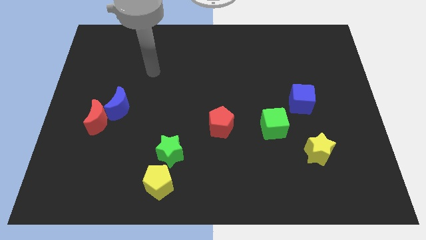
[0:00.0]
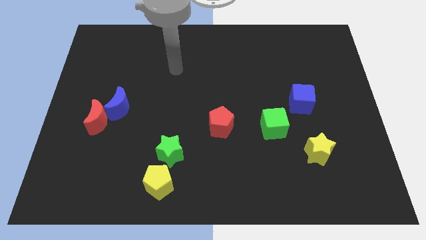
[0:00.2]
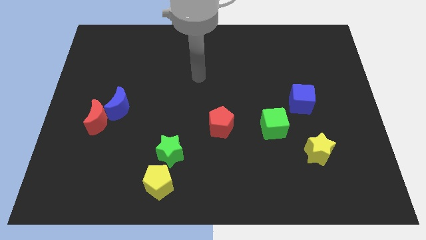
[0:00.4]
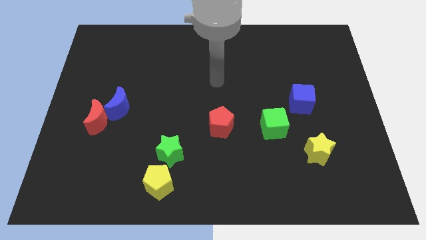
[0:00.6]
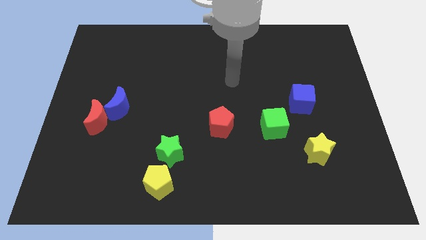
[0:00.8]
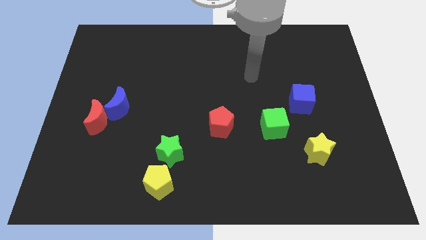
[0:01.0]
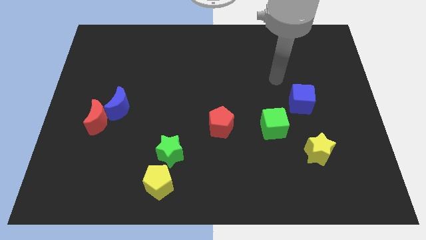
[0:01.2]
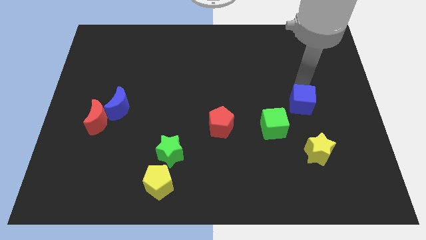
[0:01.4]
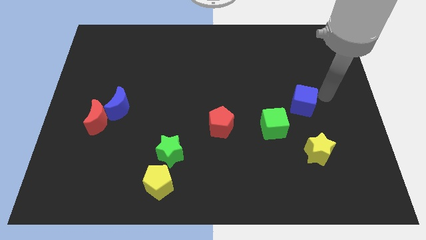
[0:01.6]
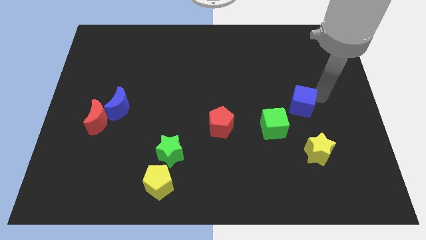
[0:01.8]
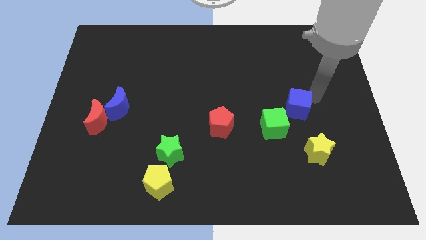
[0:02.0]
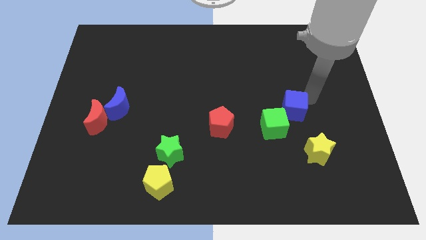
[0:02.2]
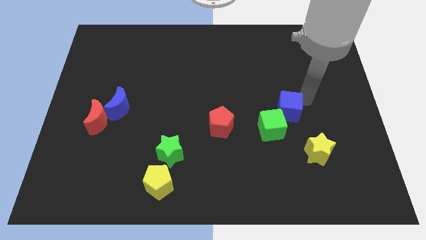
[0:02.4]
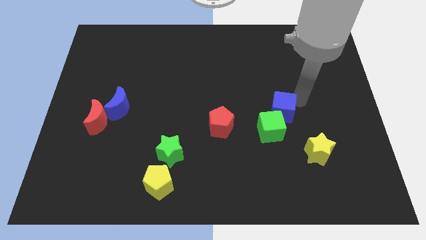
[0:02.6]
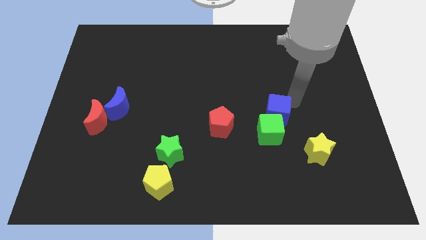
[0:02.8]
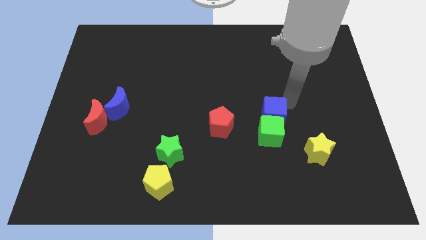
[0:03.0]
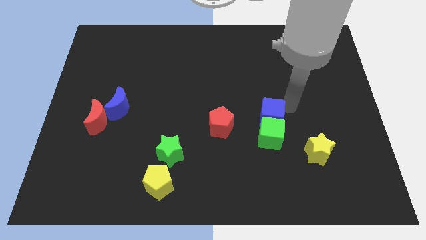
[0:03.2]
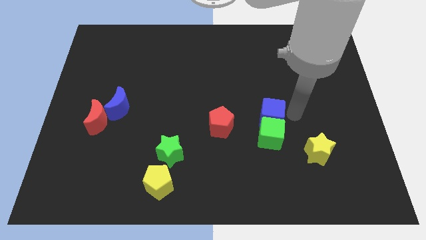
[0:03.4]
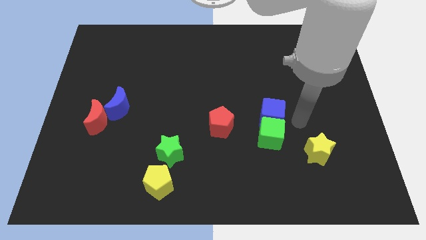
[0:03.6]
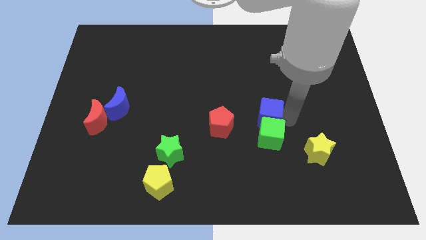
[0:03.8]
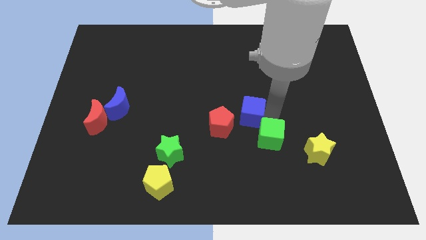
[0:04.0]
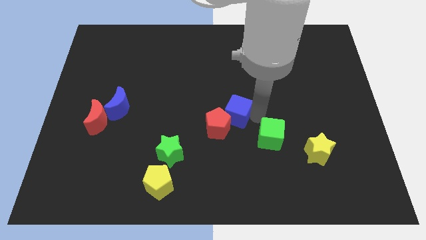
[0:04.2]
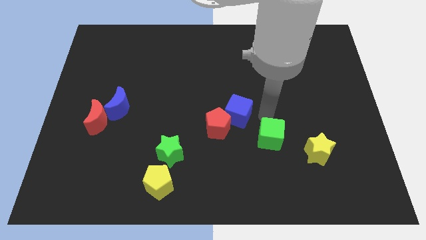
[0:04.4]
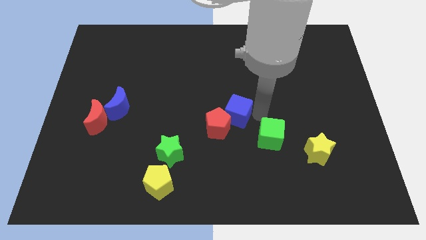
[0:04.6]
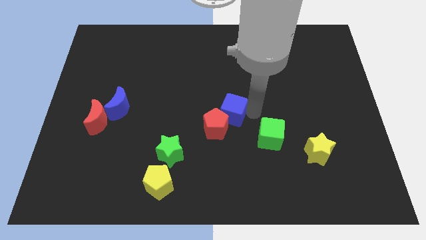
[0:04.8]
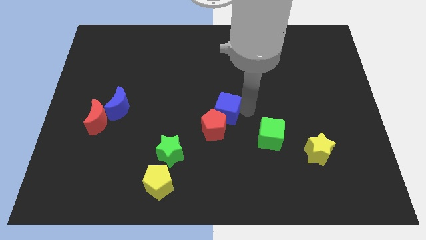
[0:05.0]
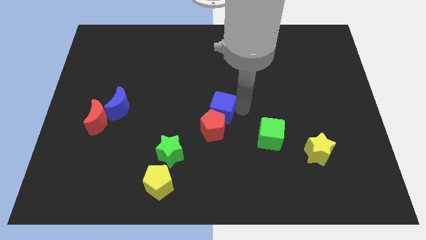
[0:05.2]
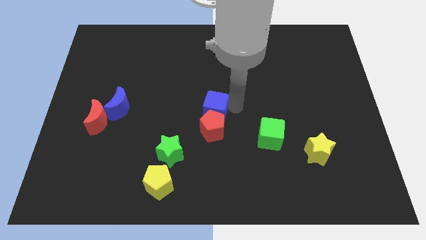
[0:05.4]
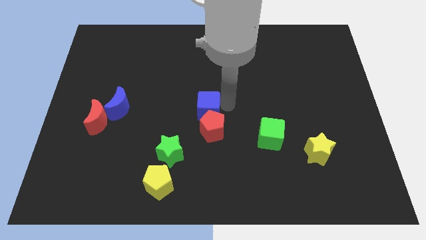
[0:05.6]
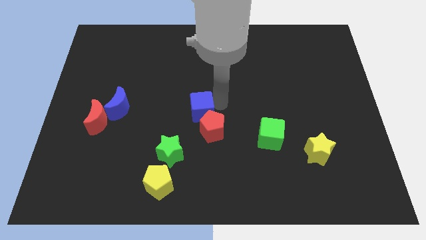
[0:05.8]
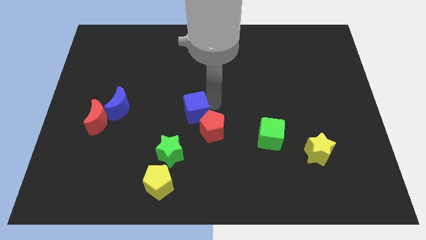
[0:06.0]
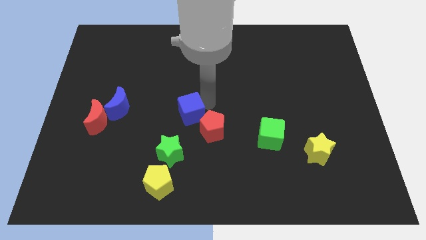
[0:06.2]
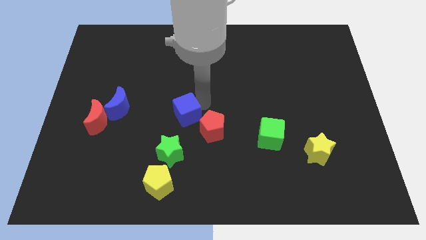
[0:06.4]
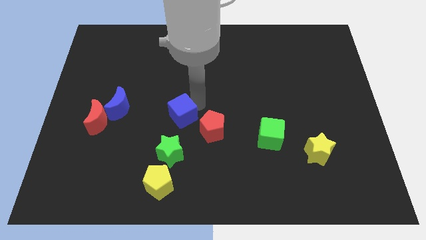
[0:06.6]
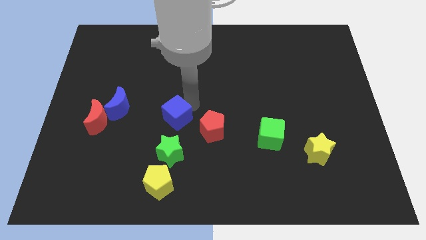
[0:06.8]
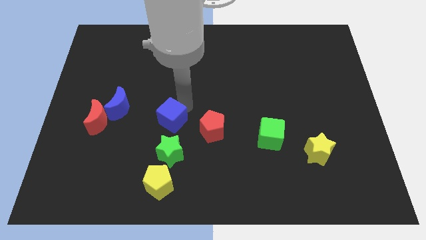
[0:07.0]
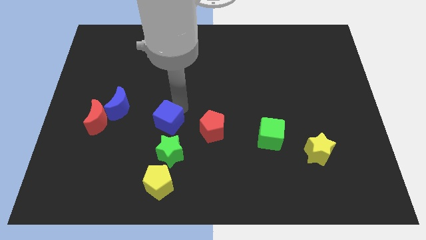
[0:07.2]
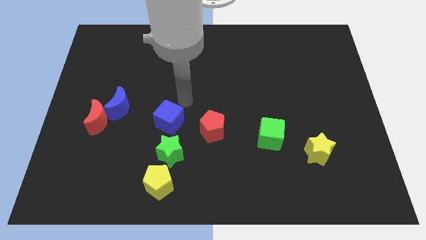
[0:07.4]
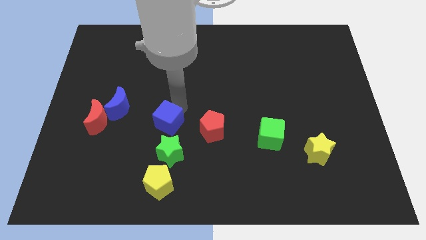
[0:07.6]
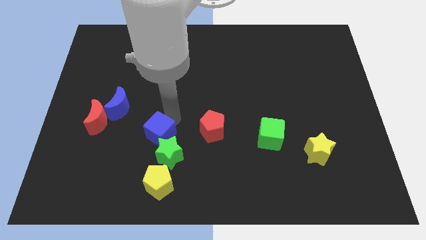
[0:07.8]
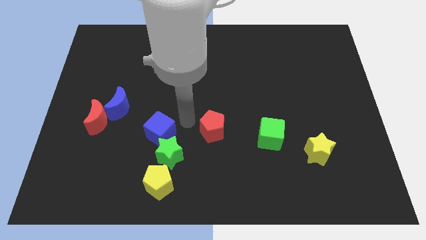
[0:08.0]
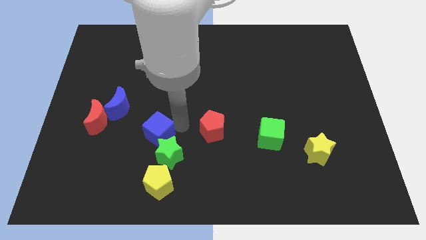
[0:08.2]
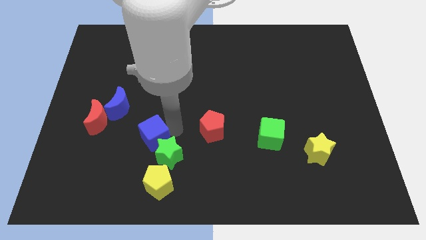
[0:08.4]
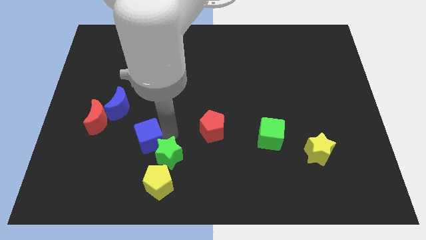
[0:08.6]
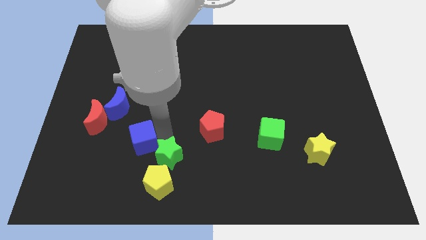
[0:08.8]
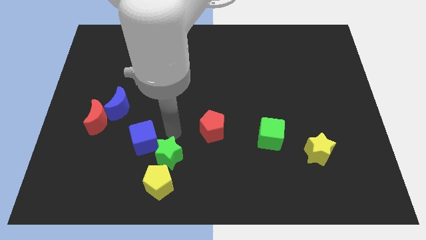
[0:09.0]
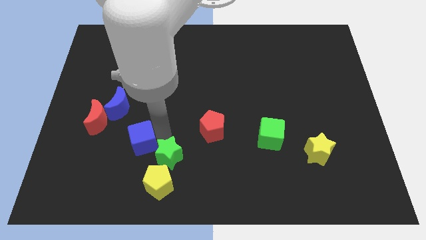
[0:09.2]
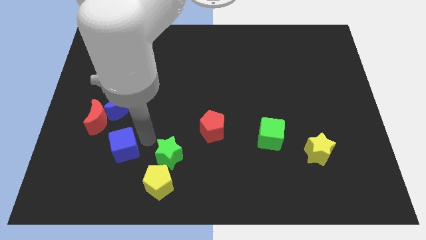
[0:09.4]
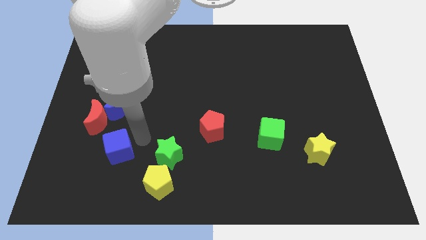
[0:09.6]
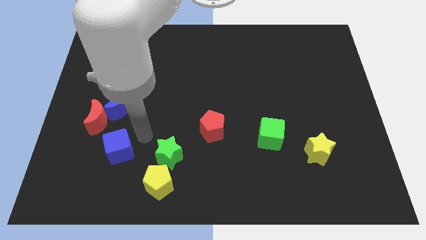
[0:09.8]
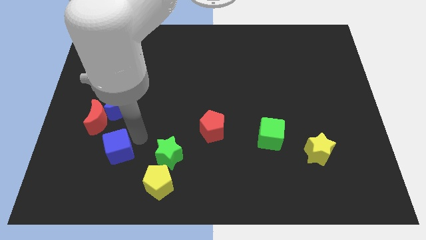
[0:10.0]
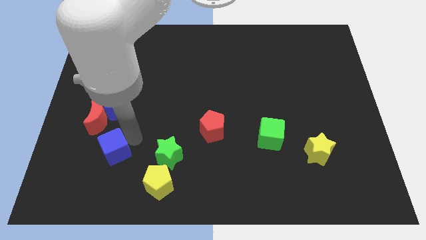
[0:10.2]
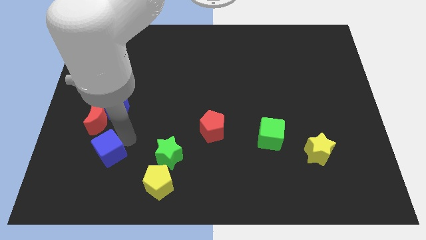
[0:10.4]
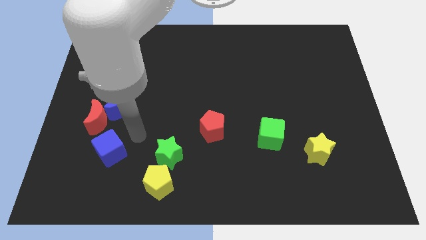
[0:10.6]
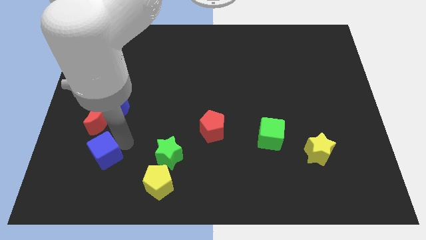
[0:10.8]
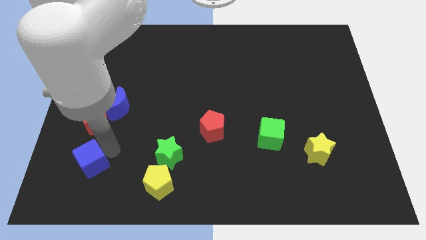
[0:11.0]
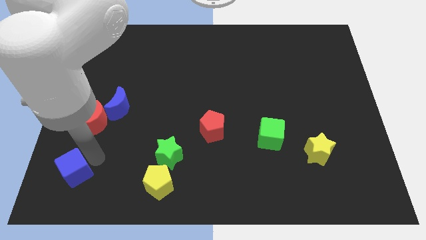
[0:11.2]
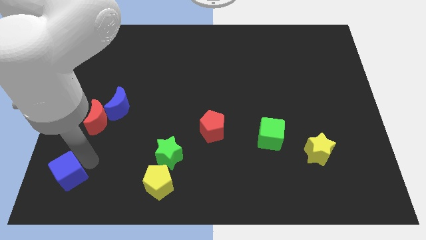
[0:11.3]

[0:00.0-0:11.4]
slide the blue cube to the lower left corner

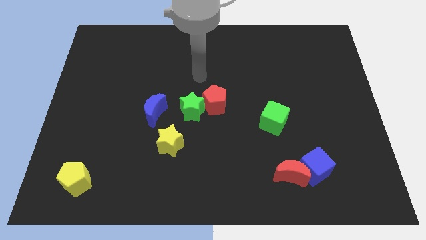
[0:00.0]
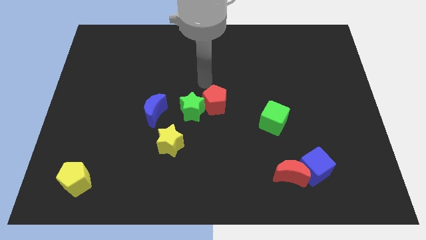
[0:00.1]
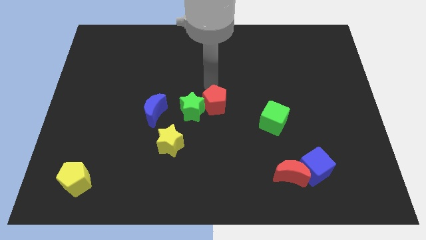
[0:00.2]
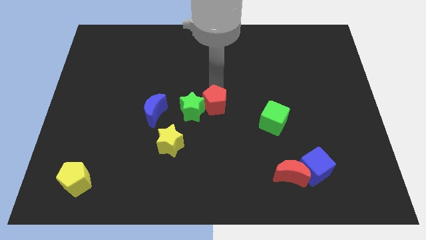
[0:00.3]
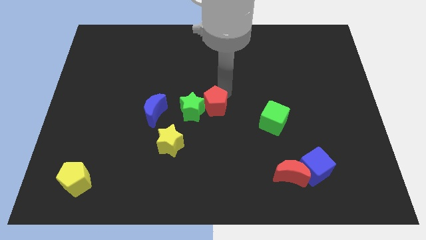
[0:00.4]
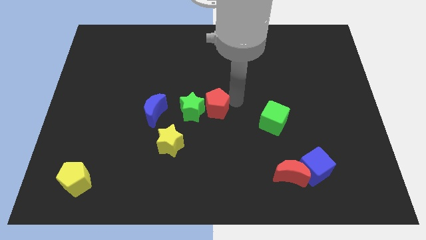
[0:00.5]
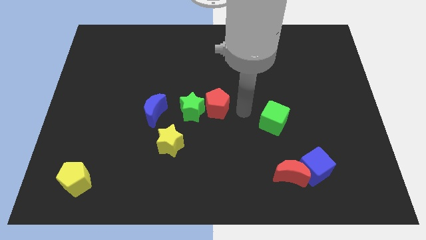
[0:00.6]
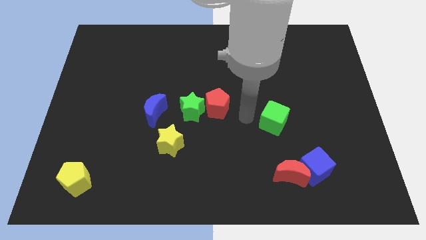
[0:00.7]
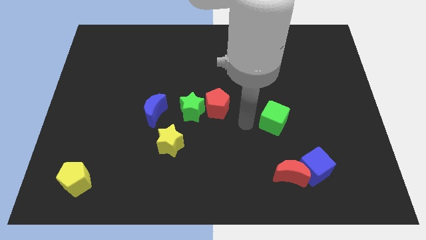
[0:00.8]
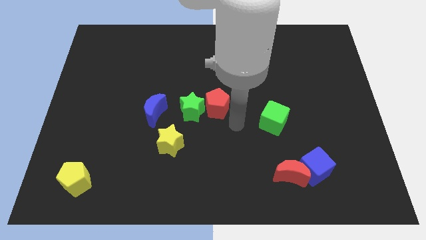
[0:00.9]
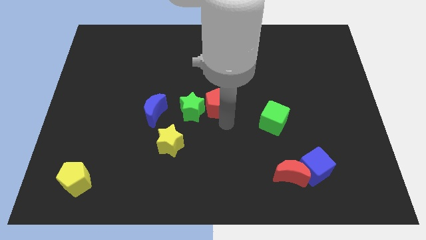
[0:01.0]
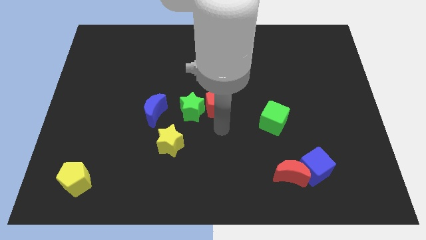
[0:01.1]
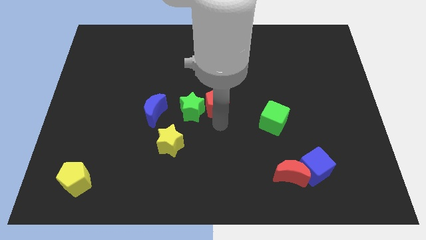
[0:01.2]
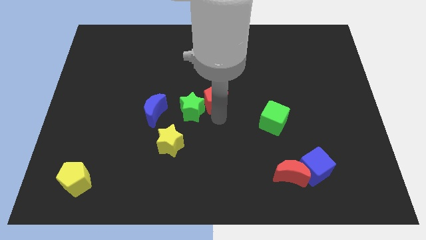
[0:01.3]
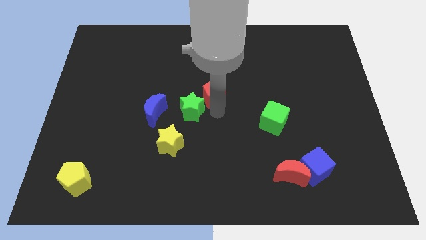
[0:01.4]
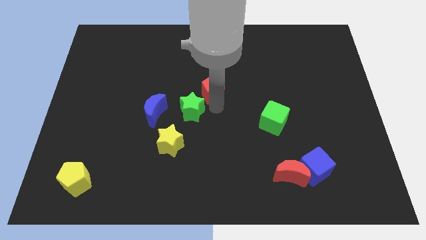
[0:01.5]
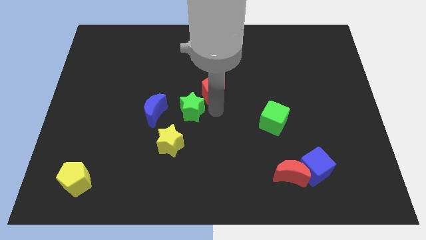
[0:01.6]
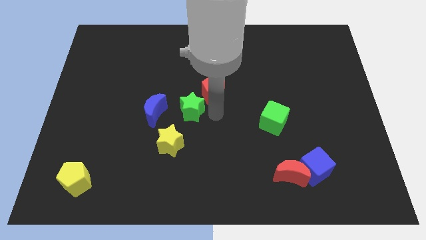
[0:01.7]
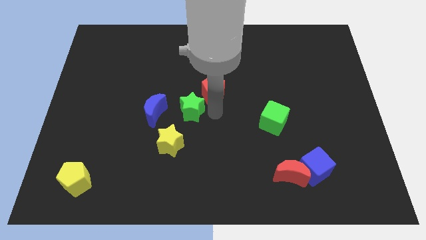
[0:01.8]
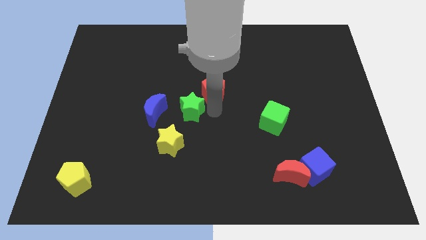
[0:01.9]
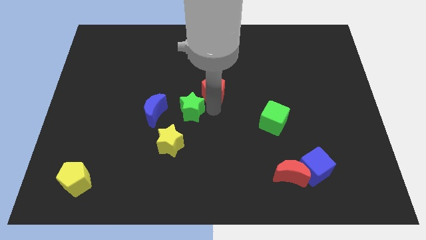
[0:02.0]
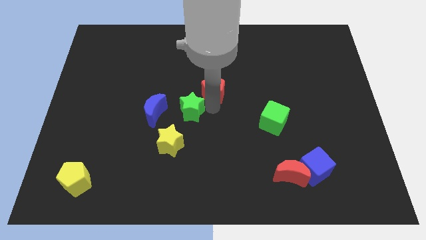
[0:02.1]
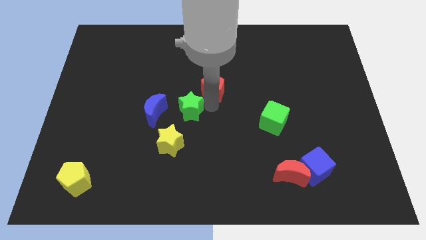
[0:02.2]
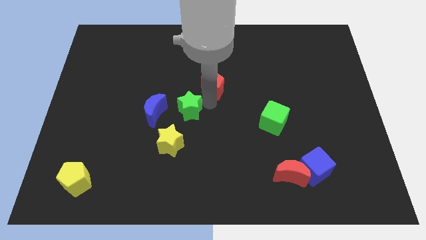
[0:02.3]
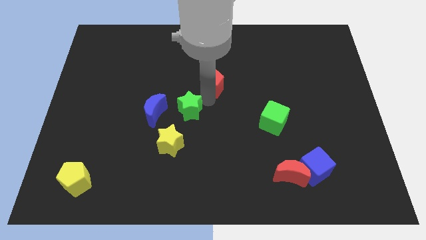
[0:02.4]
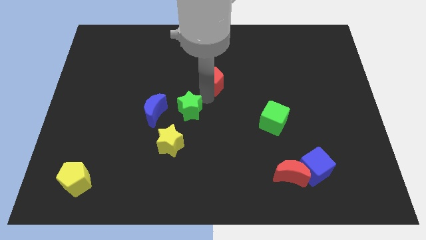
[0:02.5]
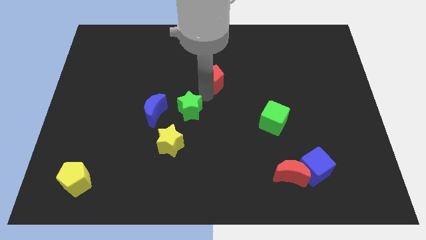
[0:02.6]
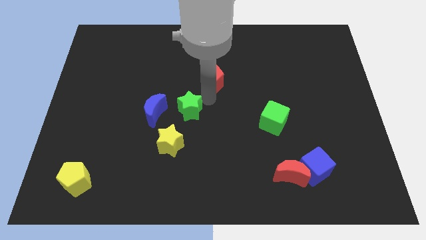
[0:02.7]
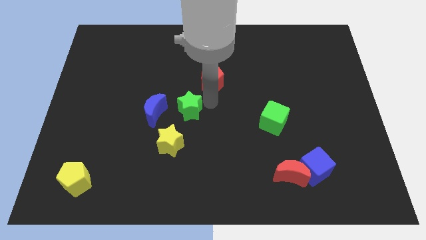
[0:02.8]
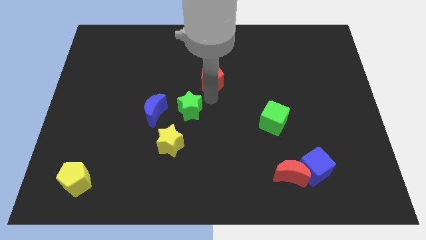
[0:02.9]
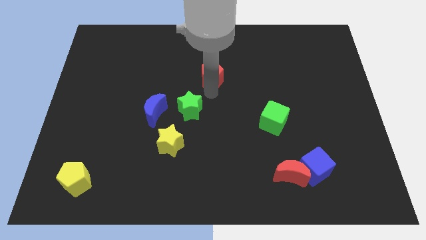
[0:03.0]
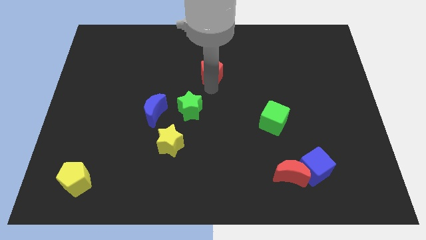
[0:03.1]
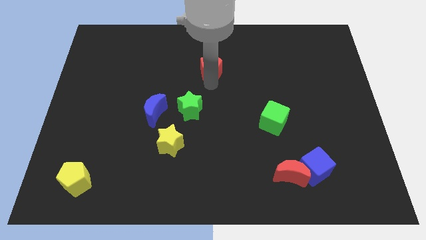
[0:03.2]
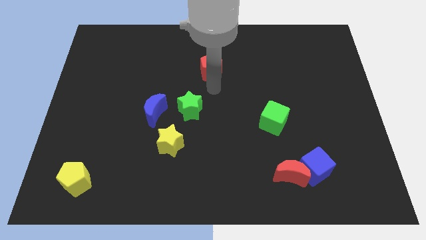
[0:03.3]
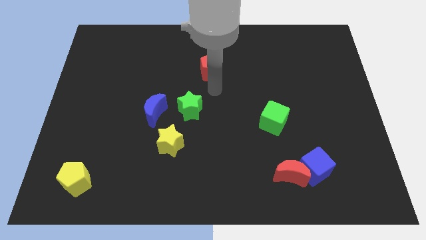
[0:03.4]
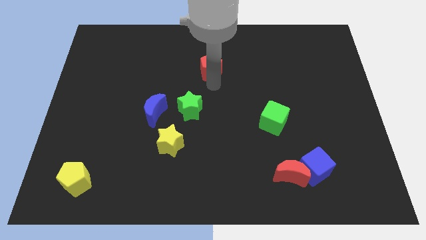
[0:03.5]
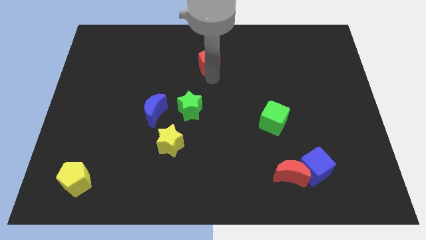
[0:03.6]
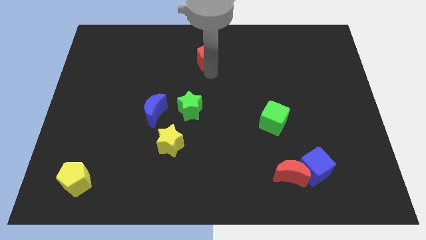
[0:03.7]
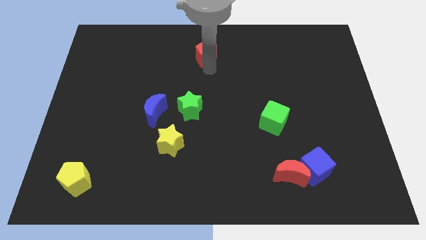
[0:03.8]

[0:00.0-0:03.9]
slide the red pentagon to the top side
